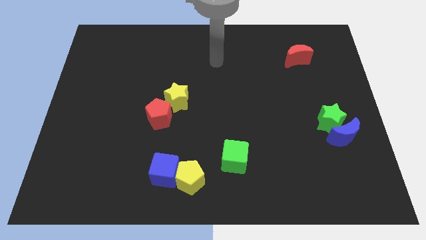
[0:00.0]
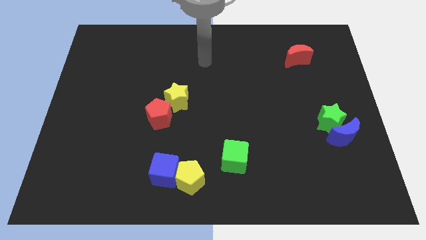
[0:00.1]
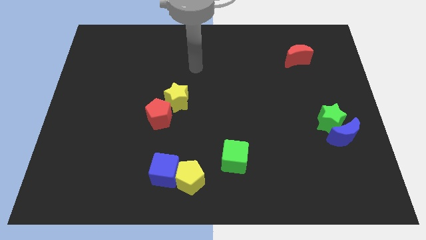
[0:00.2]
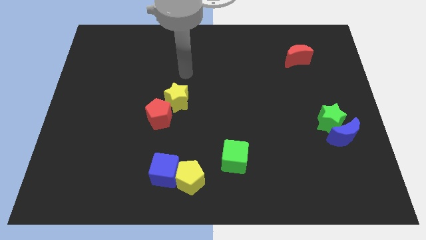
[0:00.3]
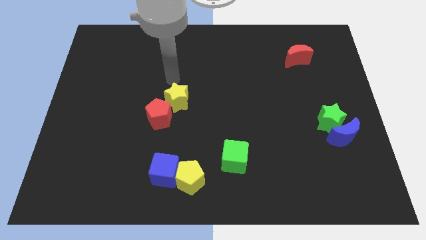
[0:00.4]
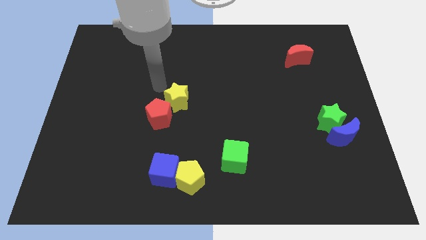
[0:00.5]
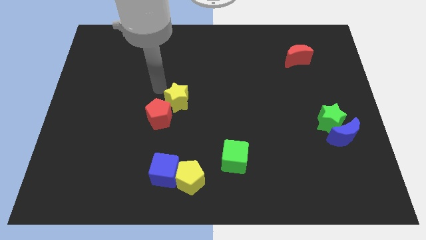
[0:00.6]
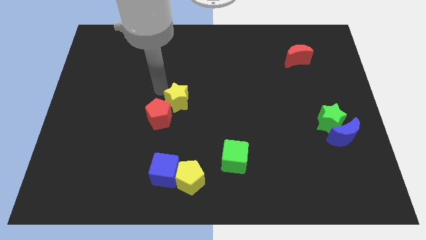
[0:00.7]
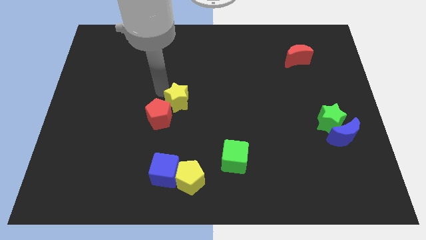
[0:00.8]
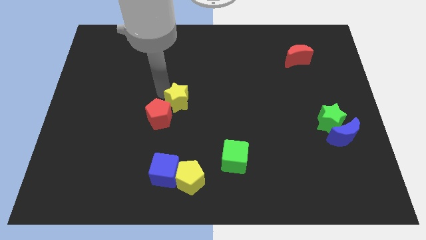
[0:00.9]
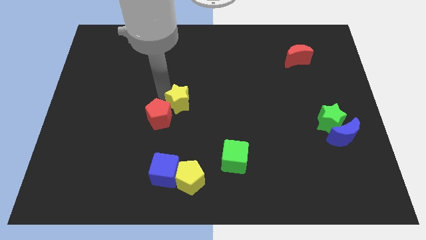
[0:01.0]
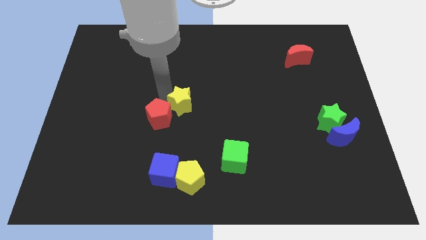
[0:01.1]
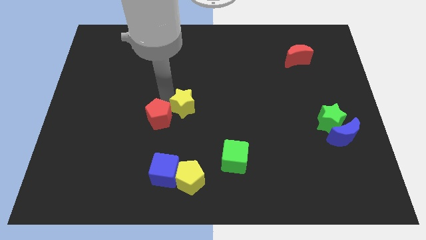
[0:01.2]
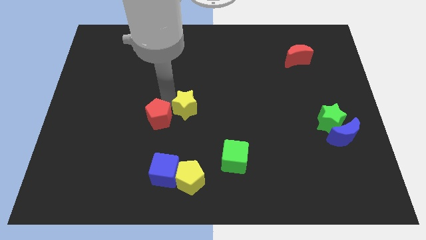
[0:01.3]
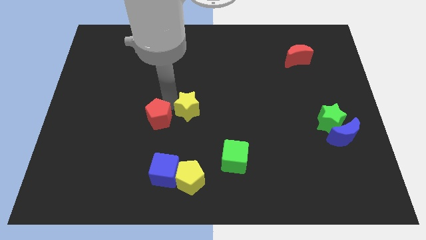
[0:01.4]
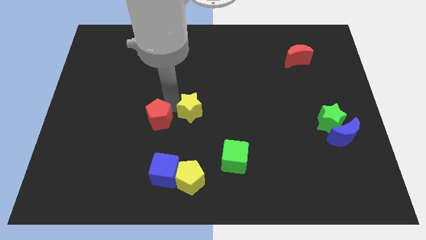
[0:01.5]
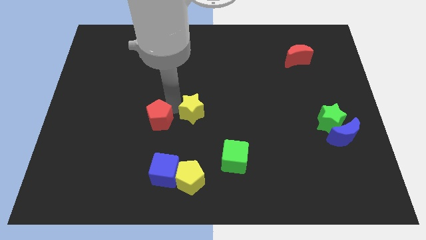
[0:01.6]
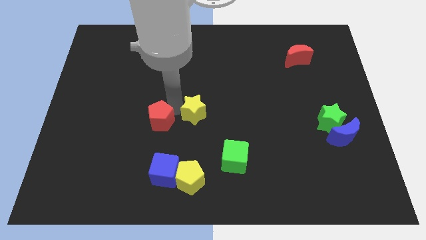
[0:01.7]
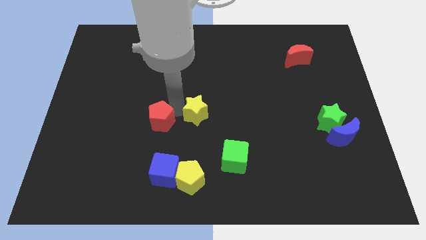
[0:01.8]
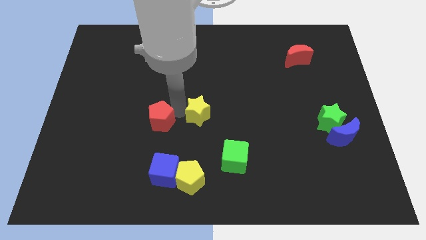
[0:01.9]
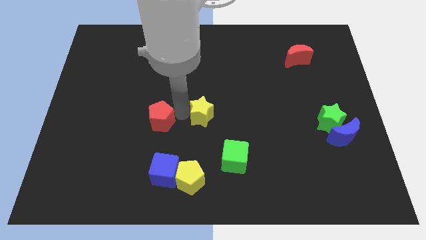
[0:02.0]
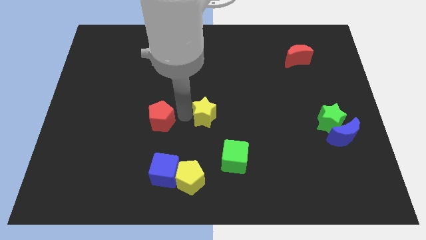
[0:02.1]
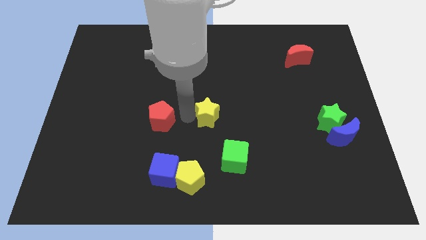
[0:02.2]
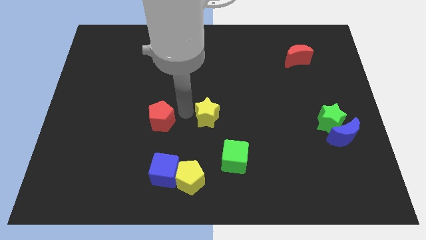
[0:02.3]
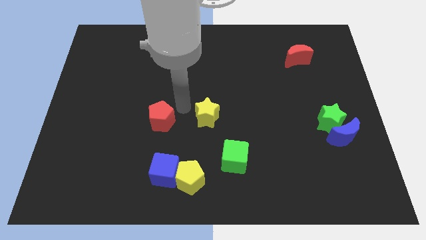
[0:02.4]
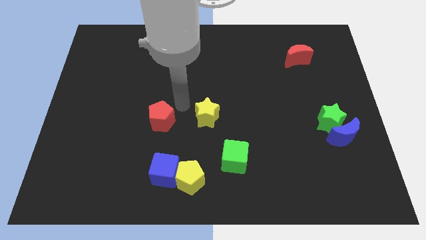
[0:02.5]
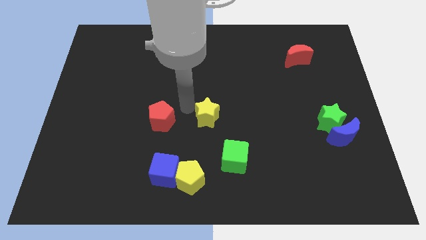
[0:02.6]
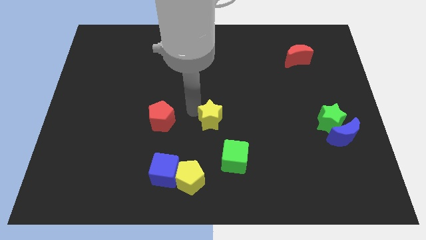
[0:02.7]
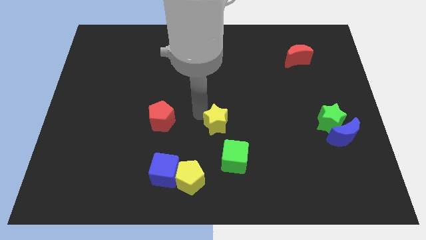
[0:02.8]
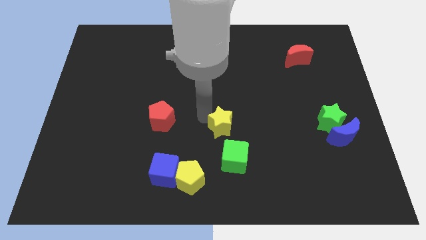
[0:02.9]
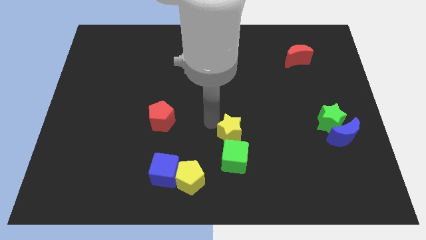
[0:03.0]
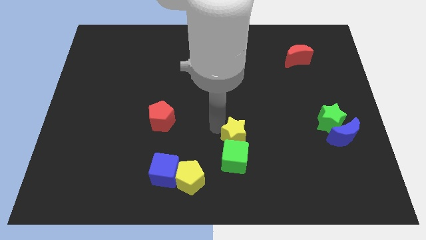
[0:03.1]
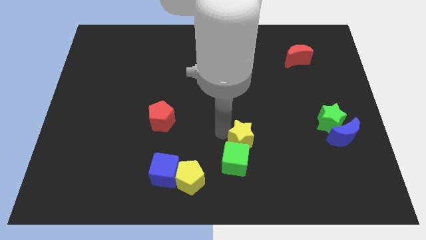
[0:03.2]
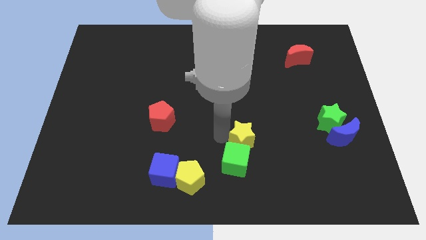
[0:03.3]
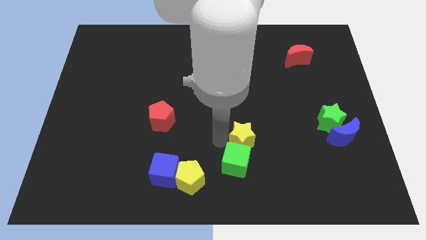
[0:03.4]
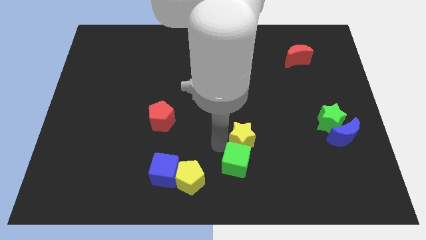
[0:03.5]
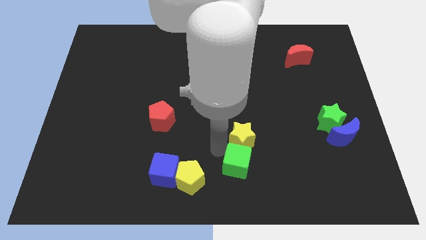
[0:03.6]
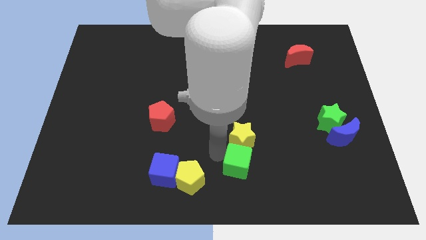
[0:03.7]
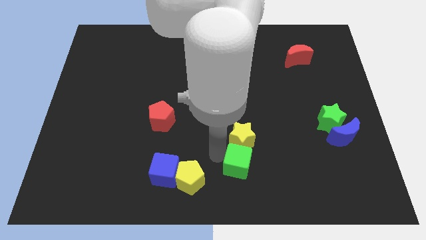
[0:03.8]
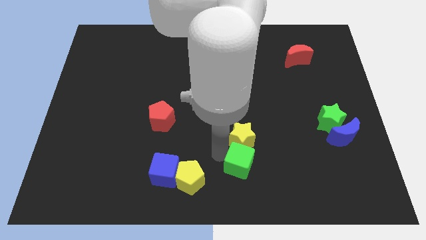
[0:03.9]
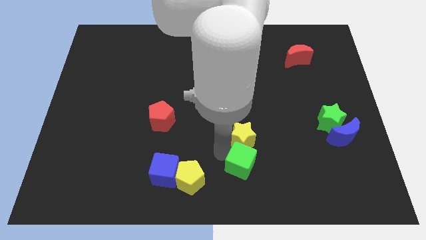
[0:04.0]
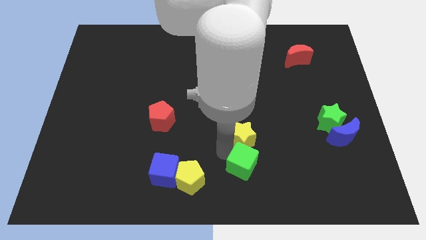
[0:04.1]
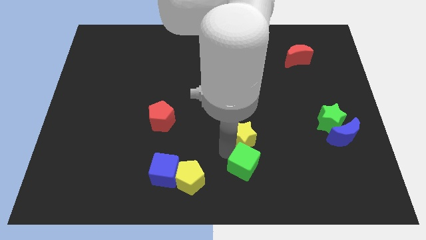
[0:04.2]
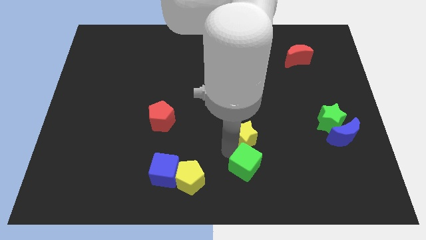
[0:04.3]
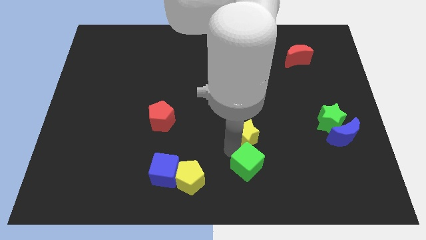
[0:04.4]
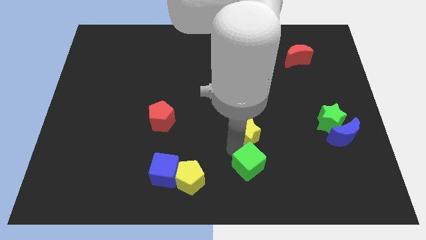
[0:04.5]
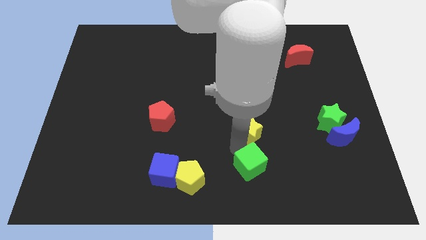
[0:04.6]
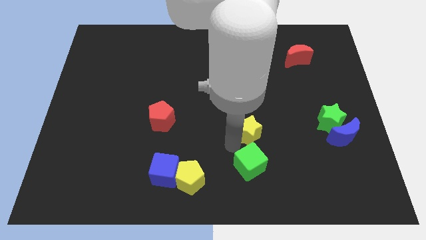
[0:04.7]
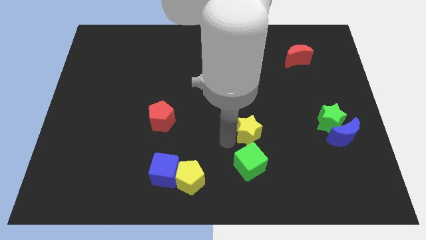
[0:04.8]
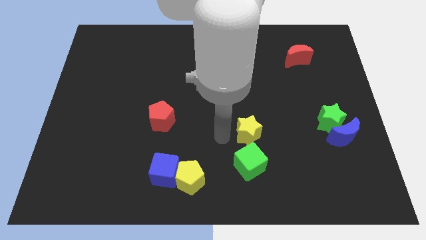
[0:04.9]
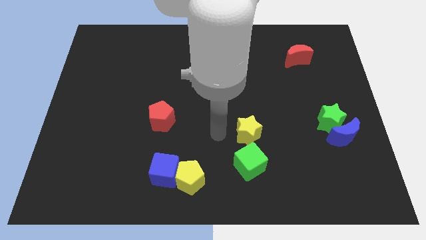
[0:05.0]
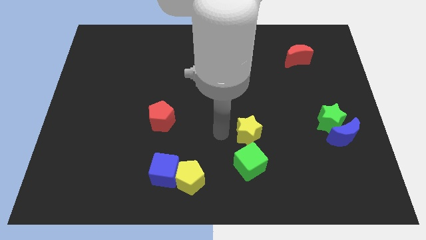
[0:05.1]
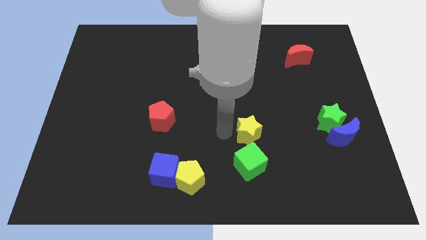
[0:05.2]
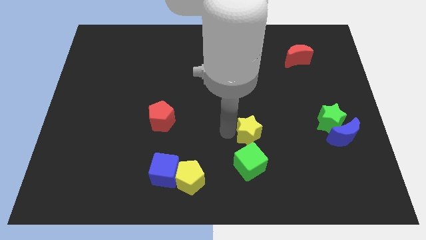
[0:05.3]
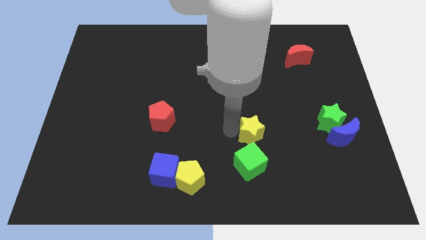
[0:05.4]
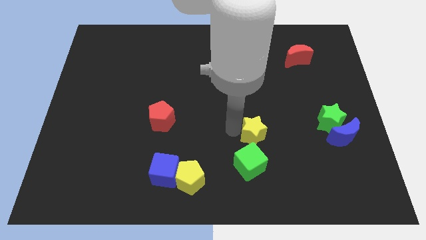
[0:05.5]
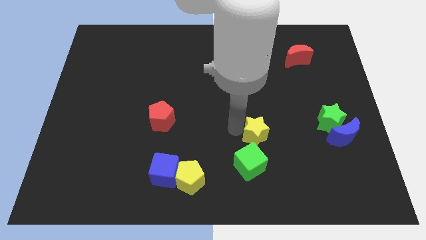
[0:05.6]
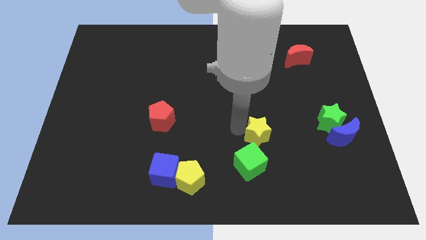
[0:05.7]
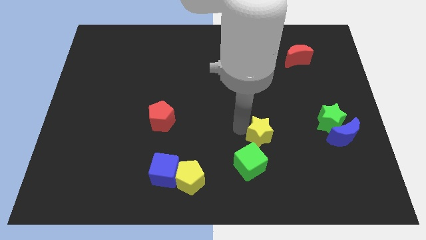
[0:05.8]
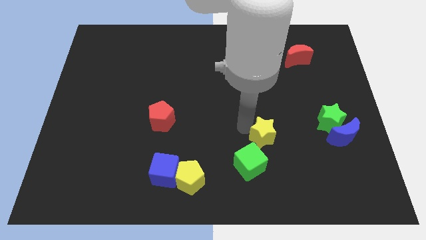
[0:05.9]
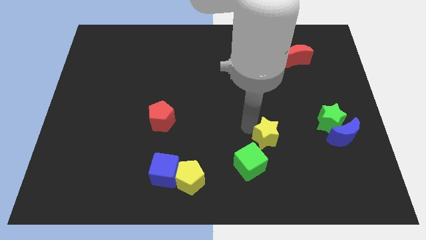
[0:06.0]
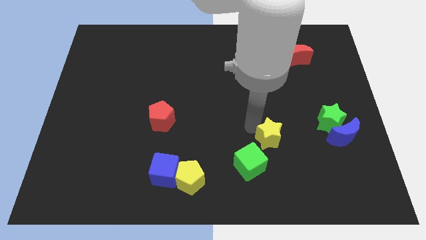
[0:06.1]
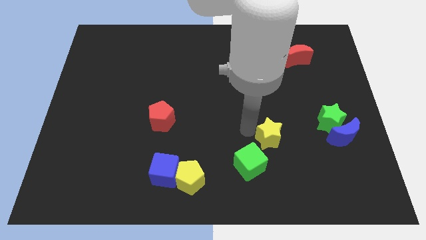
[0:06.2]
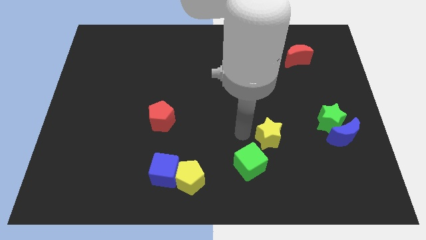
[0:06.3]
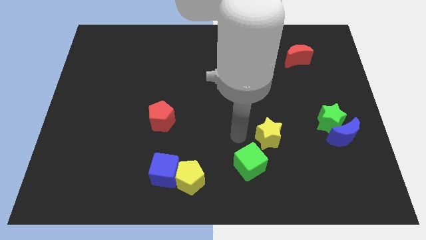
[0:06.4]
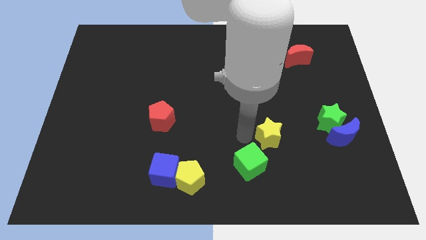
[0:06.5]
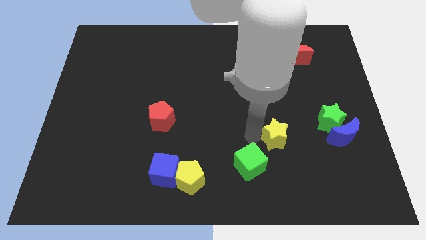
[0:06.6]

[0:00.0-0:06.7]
move the yellow star left of the blue moon

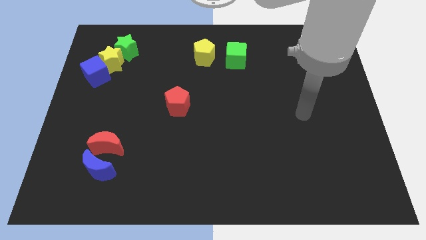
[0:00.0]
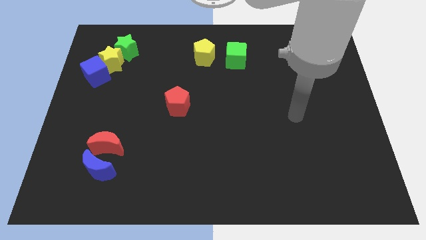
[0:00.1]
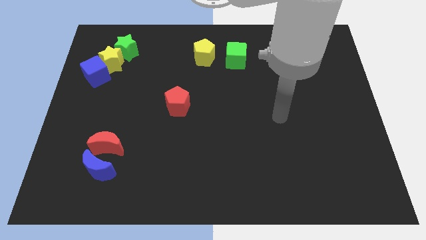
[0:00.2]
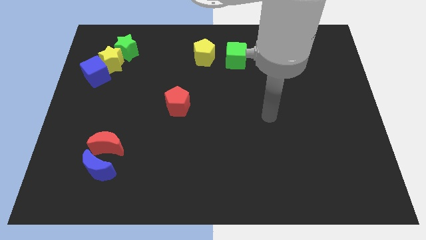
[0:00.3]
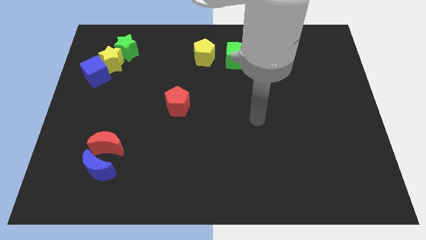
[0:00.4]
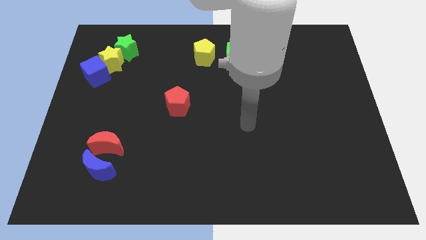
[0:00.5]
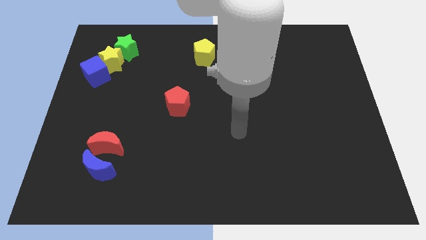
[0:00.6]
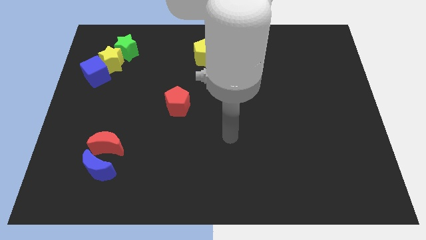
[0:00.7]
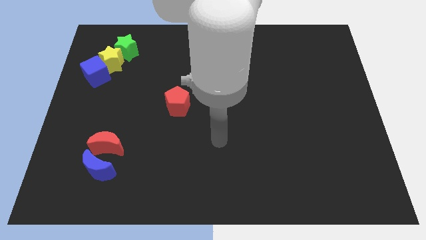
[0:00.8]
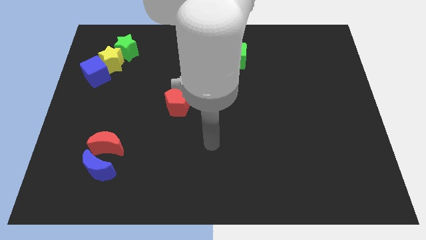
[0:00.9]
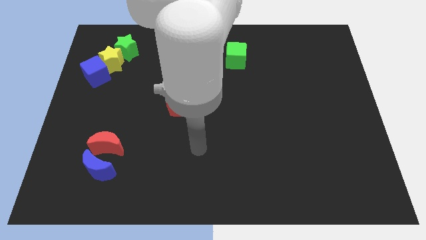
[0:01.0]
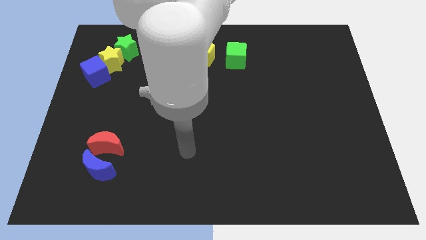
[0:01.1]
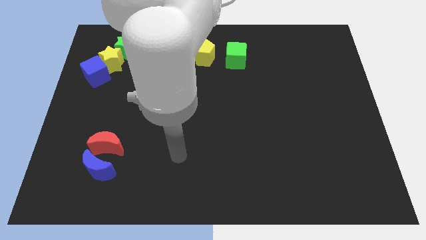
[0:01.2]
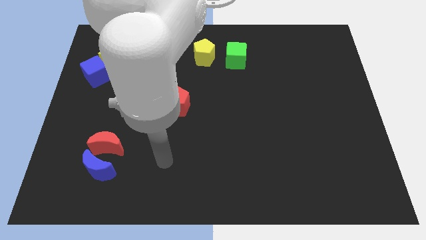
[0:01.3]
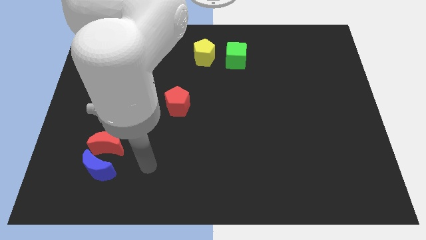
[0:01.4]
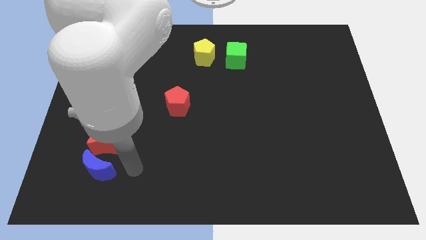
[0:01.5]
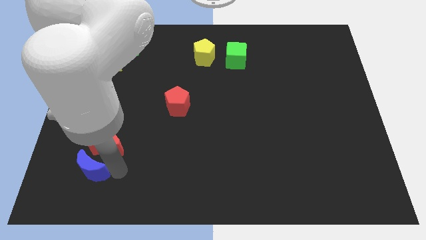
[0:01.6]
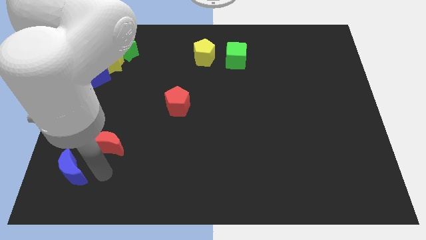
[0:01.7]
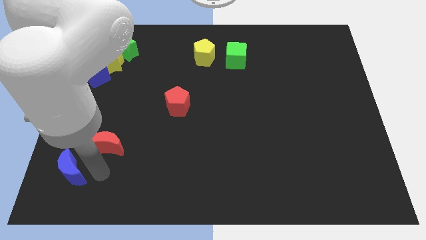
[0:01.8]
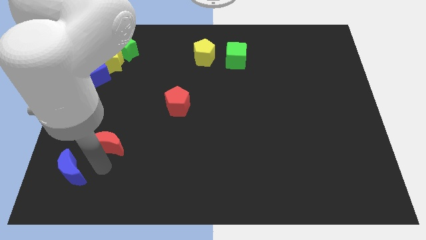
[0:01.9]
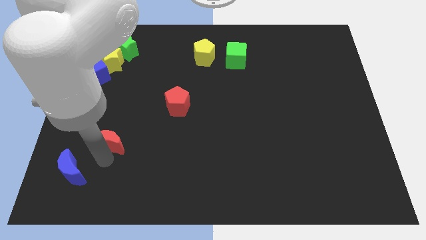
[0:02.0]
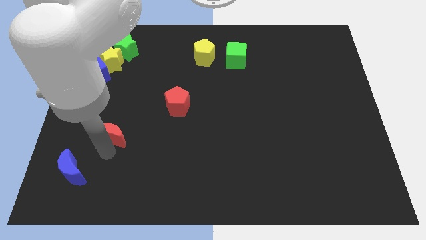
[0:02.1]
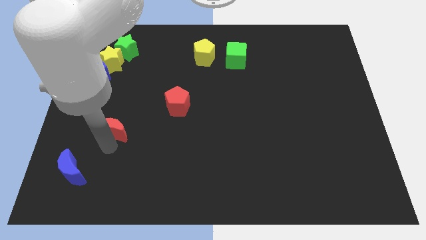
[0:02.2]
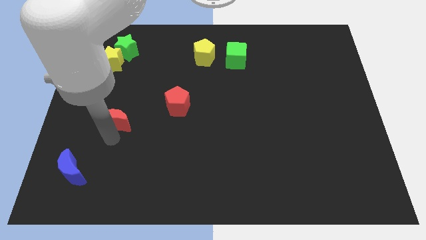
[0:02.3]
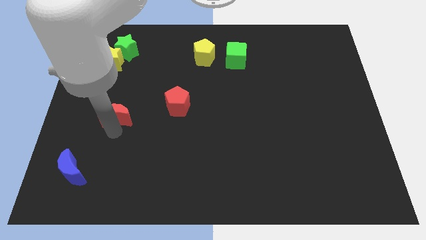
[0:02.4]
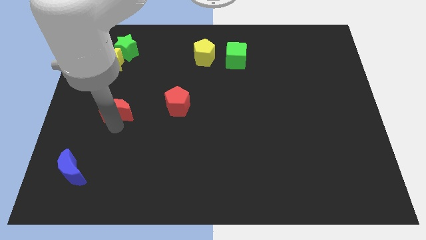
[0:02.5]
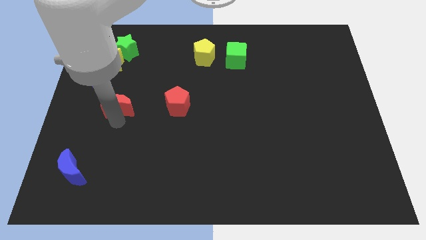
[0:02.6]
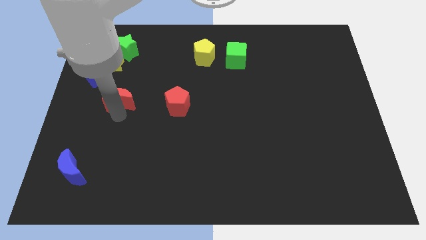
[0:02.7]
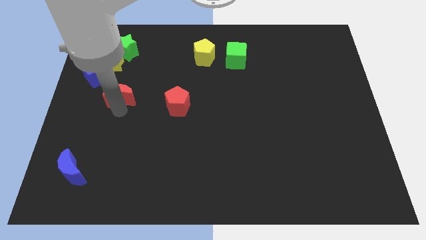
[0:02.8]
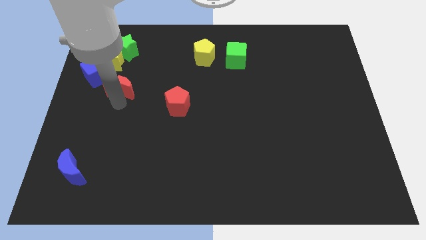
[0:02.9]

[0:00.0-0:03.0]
slide the red moon to the right of the blue cube
